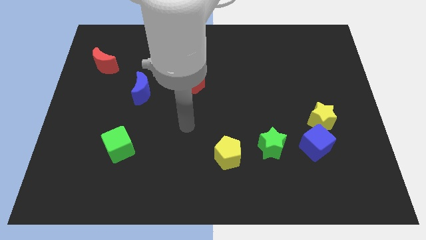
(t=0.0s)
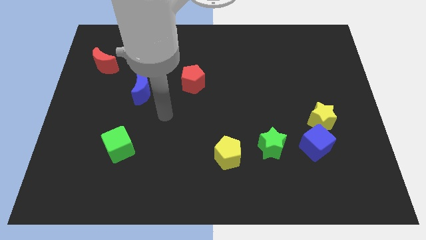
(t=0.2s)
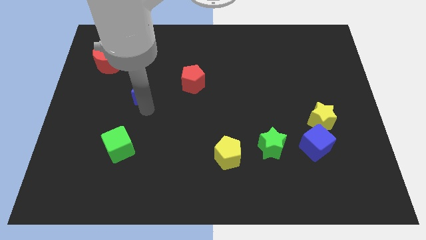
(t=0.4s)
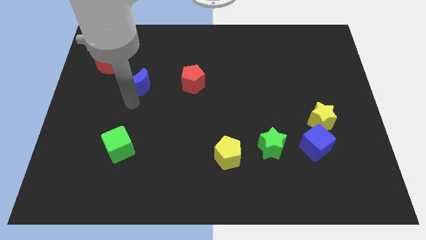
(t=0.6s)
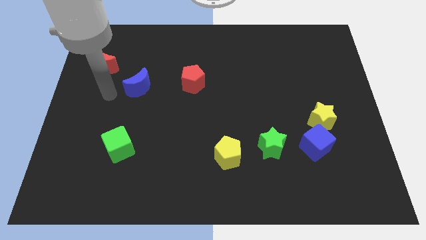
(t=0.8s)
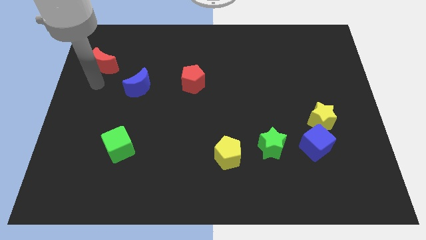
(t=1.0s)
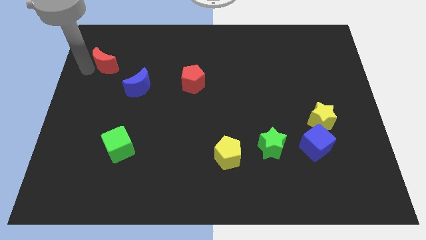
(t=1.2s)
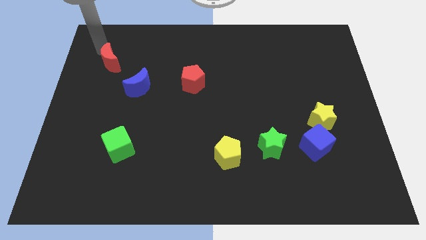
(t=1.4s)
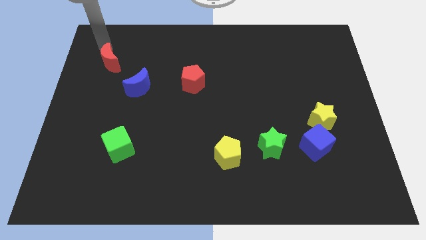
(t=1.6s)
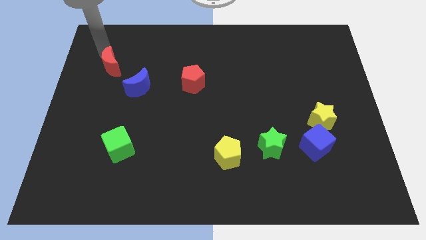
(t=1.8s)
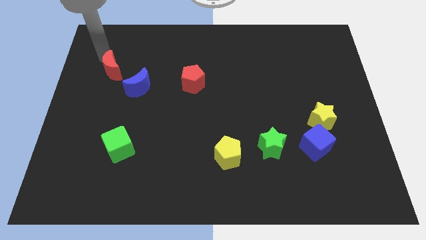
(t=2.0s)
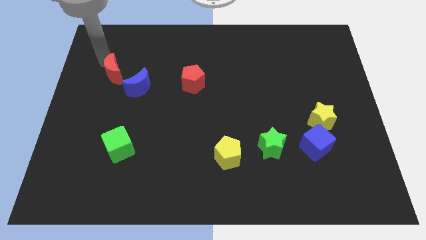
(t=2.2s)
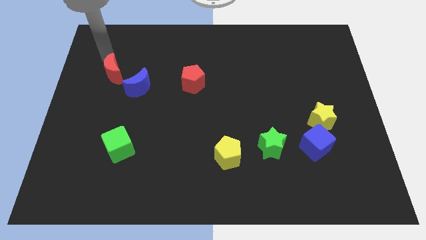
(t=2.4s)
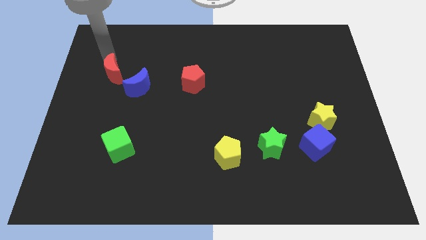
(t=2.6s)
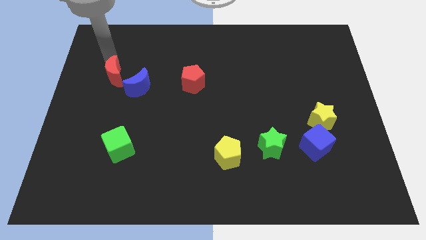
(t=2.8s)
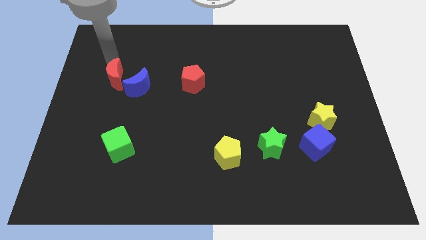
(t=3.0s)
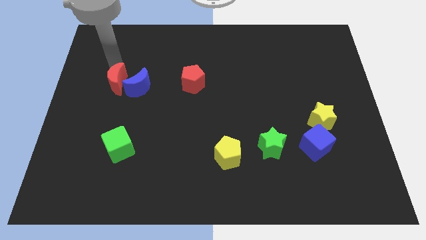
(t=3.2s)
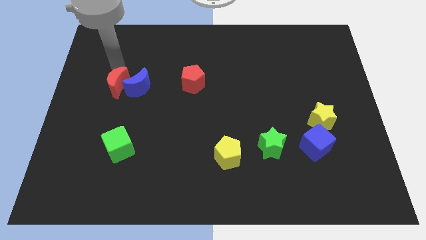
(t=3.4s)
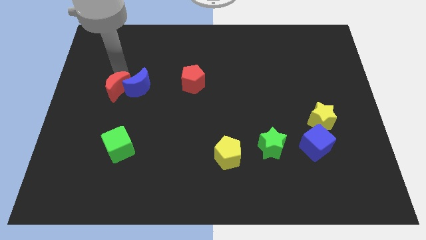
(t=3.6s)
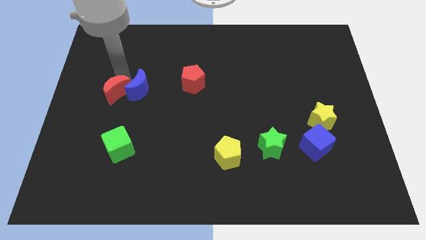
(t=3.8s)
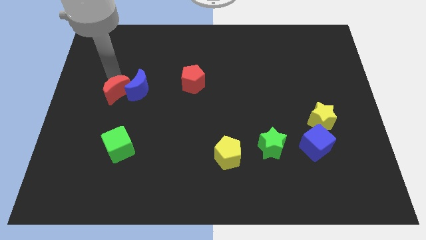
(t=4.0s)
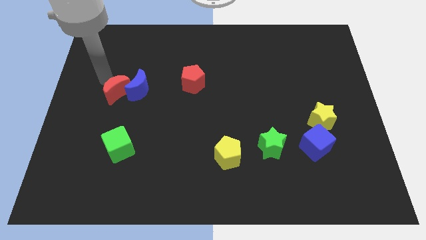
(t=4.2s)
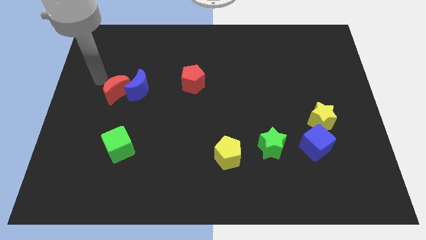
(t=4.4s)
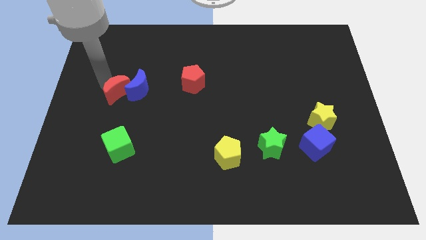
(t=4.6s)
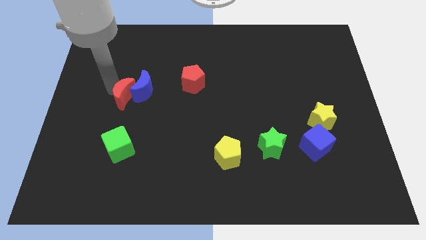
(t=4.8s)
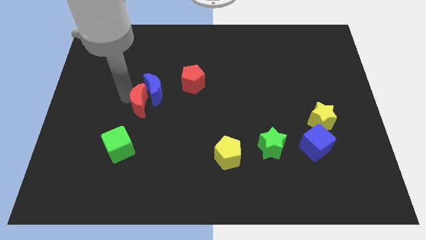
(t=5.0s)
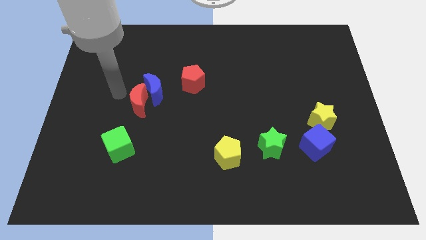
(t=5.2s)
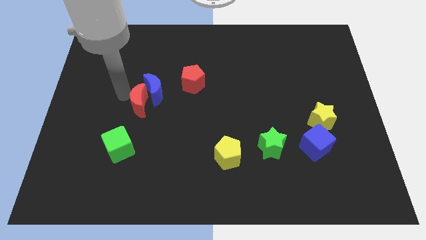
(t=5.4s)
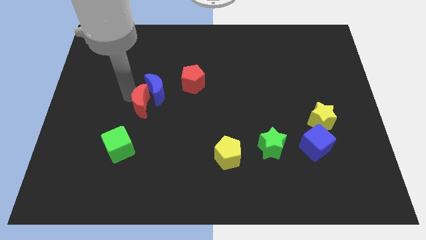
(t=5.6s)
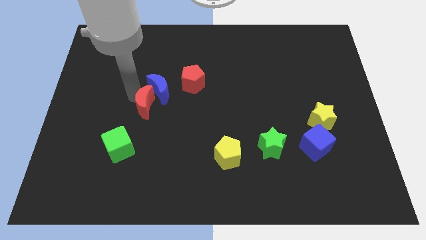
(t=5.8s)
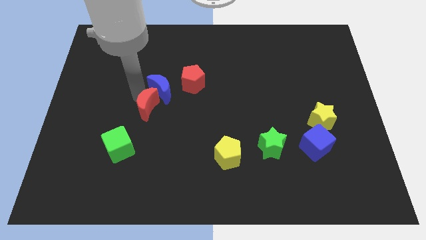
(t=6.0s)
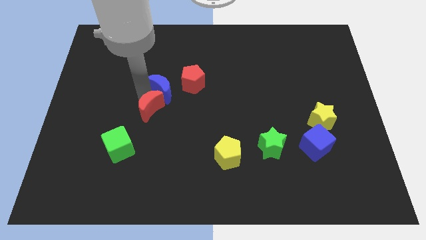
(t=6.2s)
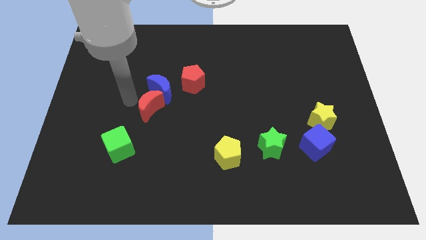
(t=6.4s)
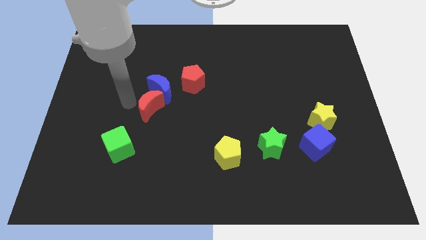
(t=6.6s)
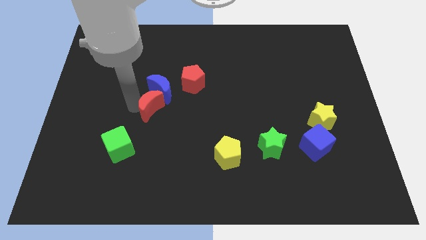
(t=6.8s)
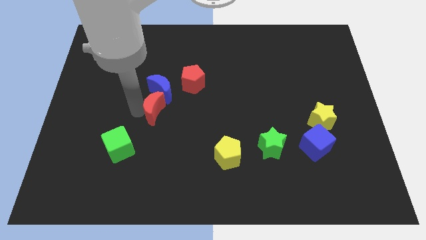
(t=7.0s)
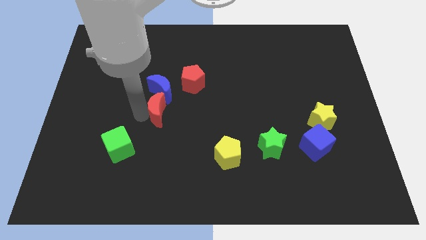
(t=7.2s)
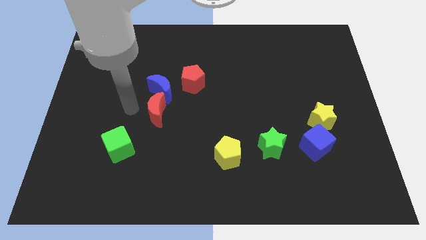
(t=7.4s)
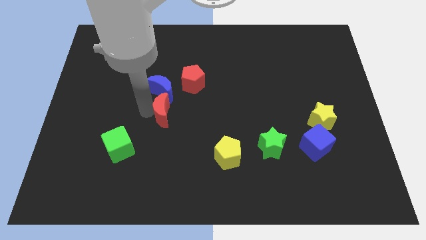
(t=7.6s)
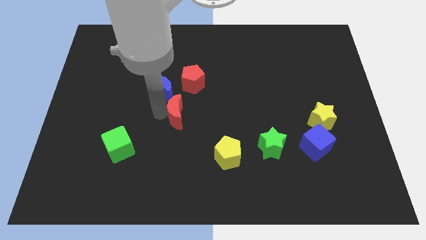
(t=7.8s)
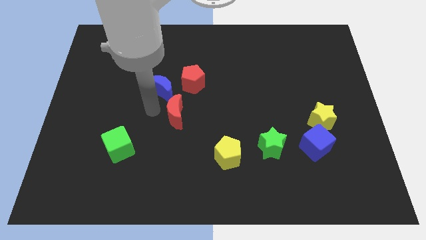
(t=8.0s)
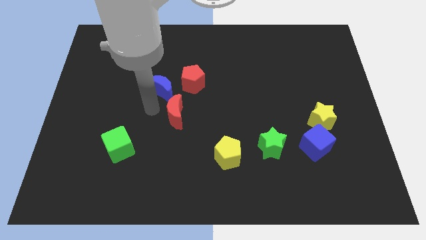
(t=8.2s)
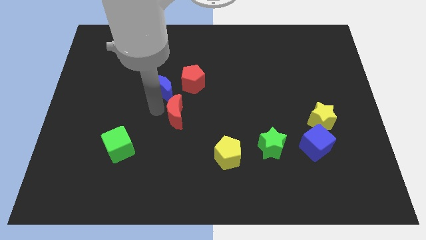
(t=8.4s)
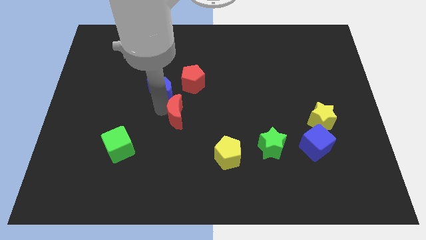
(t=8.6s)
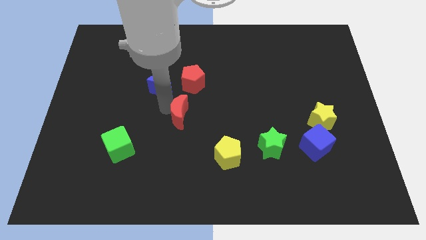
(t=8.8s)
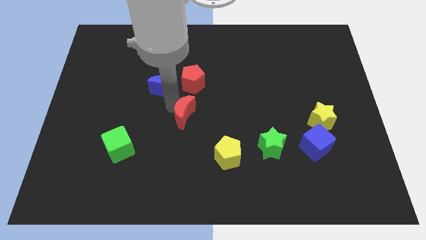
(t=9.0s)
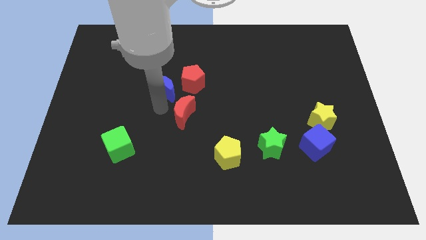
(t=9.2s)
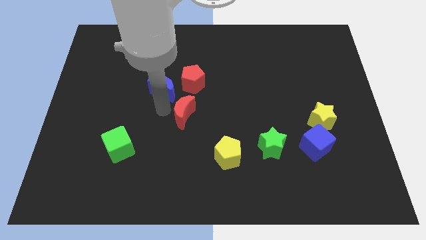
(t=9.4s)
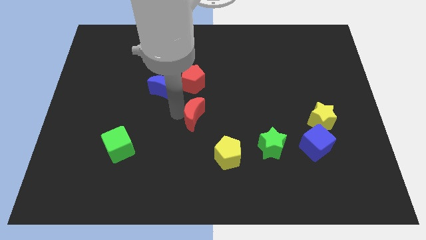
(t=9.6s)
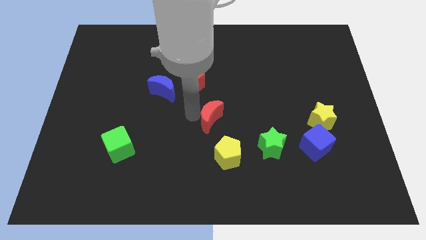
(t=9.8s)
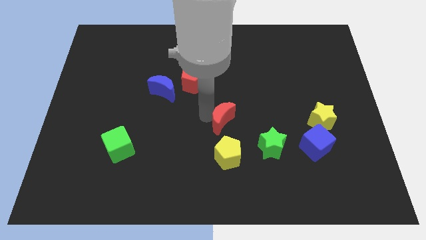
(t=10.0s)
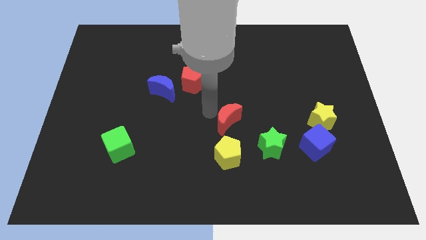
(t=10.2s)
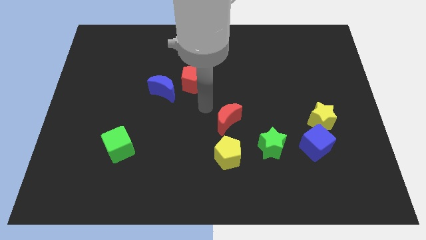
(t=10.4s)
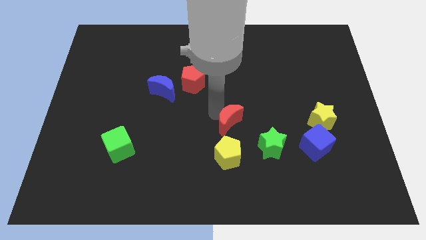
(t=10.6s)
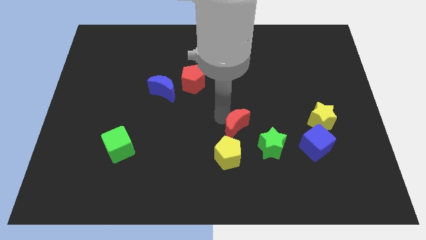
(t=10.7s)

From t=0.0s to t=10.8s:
move the red moon to the top right side of the yellow pentagon

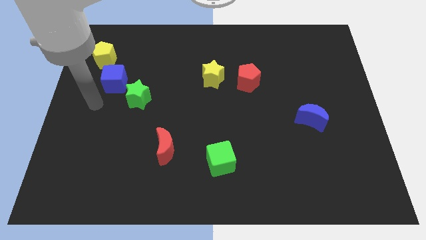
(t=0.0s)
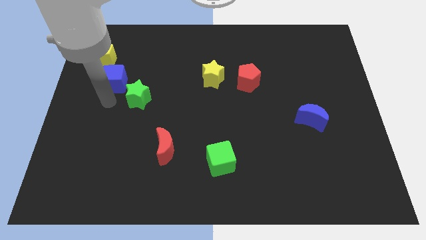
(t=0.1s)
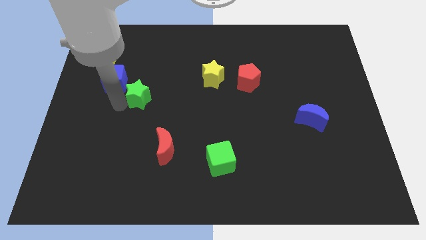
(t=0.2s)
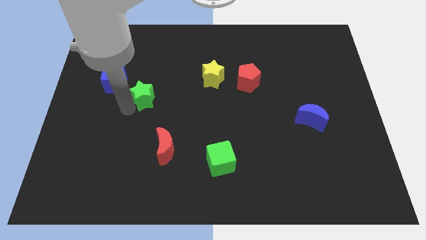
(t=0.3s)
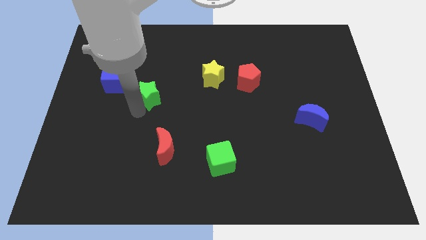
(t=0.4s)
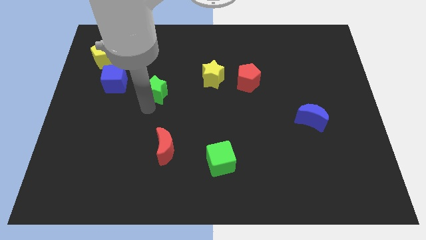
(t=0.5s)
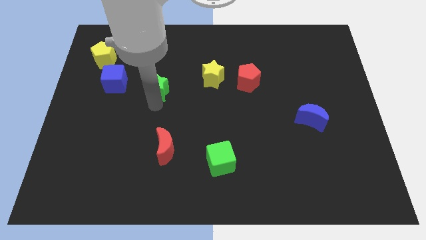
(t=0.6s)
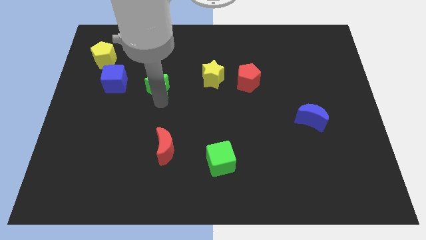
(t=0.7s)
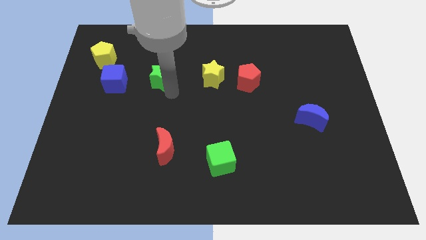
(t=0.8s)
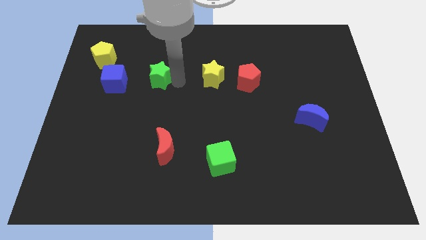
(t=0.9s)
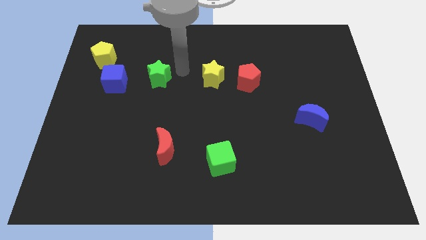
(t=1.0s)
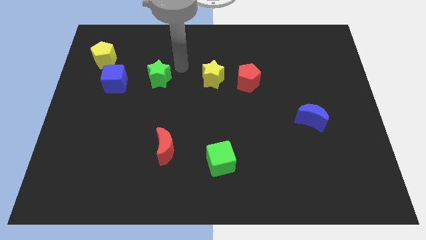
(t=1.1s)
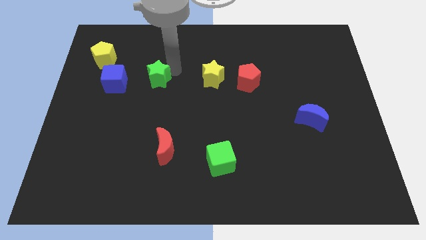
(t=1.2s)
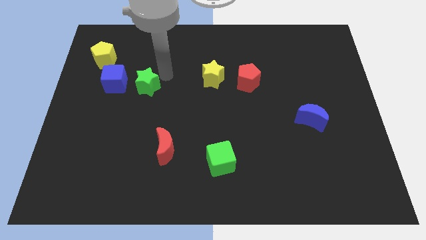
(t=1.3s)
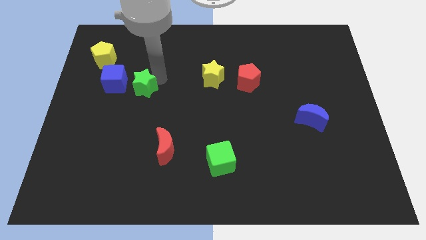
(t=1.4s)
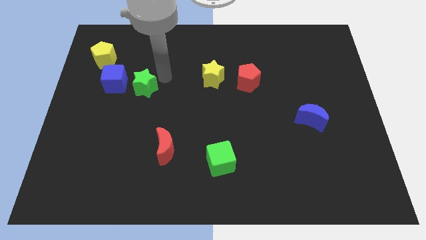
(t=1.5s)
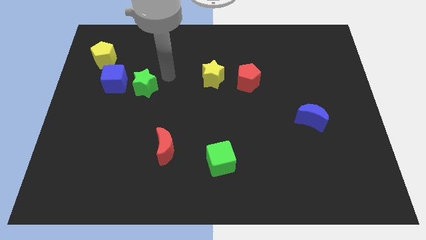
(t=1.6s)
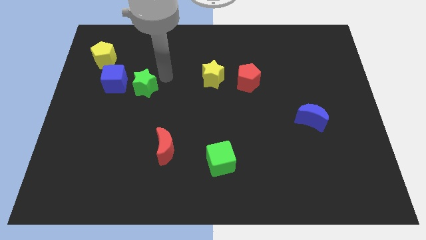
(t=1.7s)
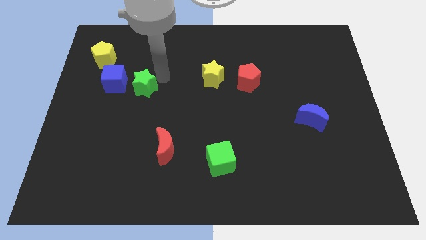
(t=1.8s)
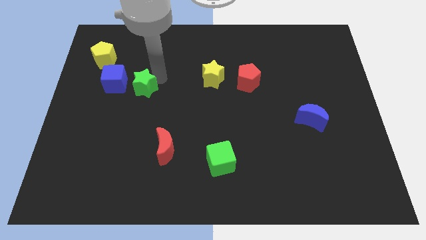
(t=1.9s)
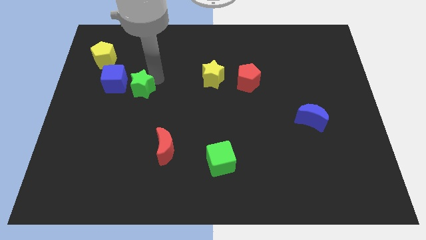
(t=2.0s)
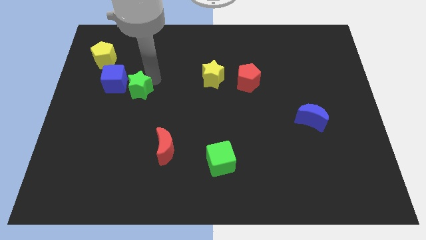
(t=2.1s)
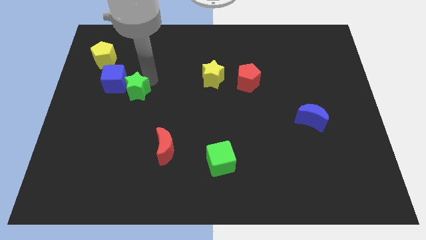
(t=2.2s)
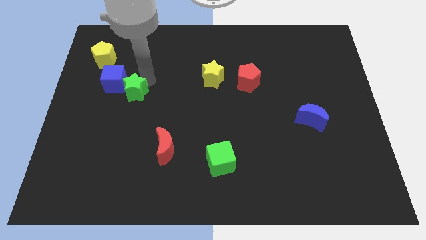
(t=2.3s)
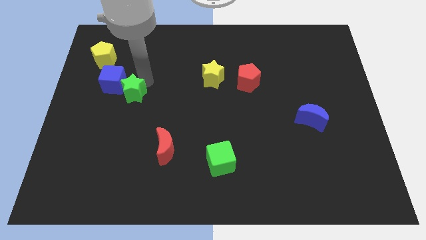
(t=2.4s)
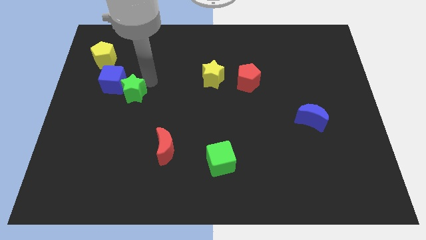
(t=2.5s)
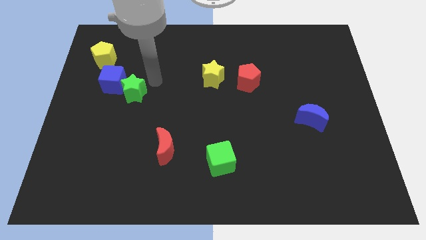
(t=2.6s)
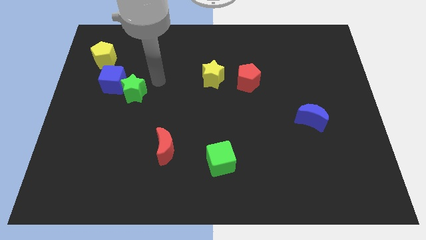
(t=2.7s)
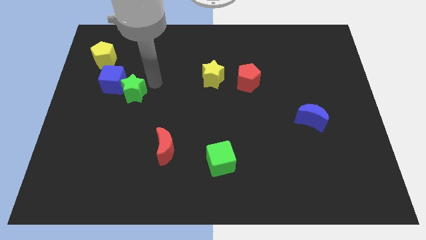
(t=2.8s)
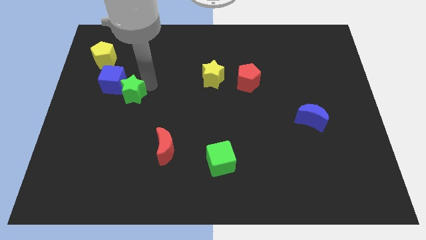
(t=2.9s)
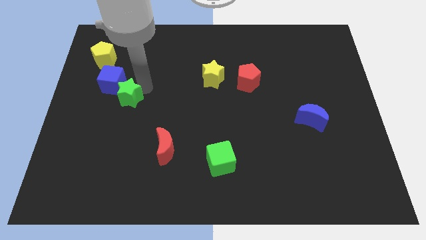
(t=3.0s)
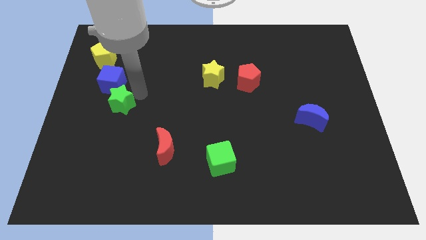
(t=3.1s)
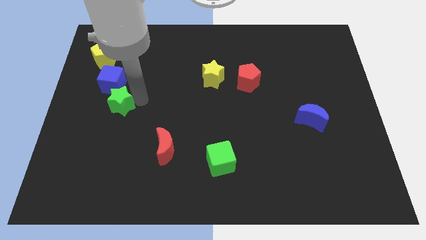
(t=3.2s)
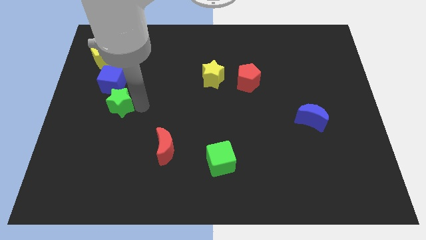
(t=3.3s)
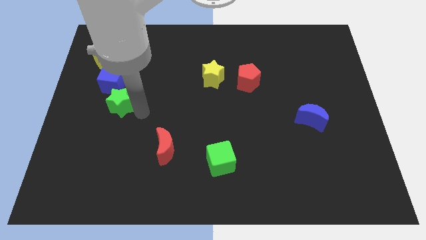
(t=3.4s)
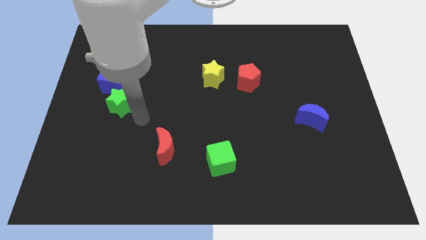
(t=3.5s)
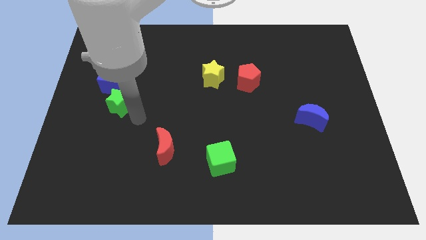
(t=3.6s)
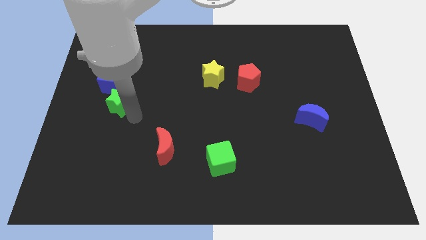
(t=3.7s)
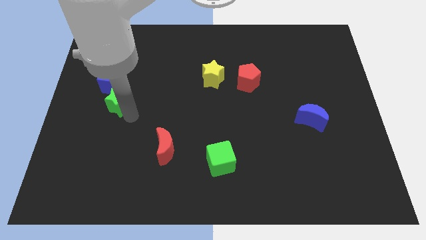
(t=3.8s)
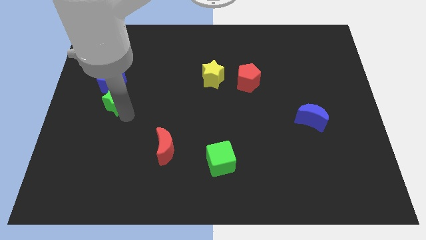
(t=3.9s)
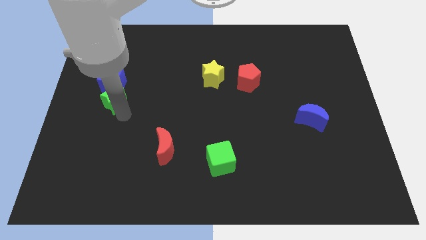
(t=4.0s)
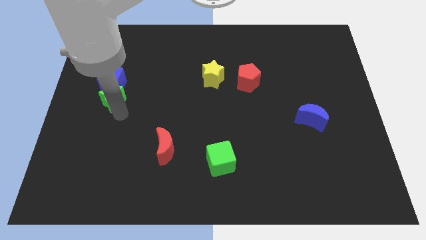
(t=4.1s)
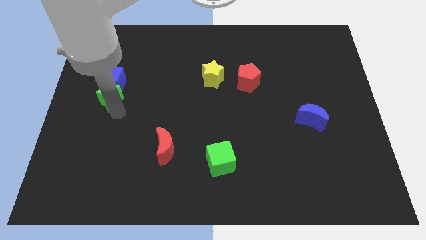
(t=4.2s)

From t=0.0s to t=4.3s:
put the green star to the bottom of the yellow pentagon